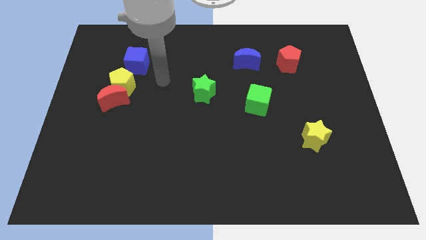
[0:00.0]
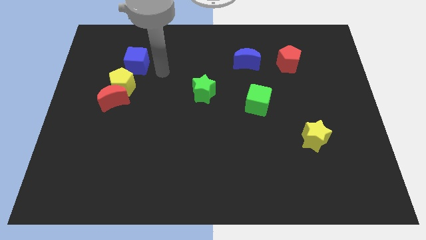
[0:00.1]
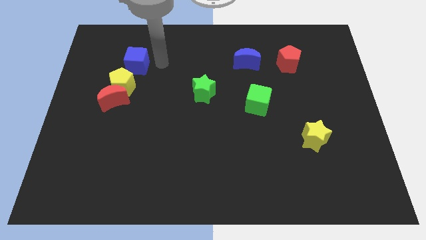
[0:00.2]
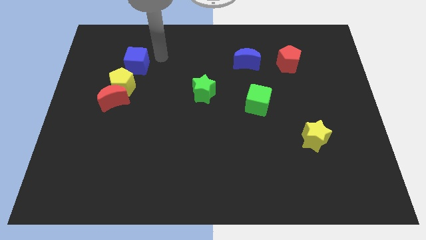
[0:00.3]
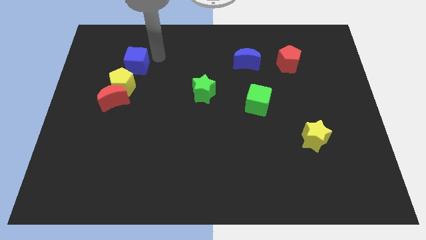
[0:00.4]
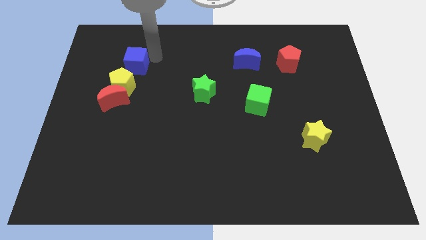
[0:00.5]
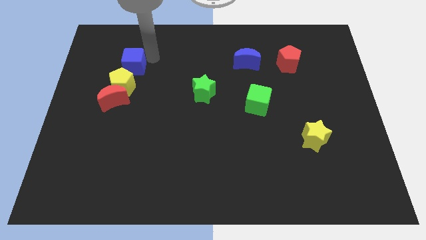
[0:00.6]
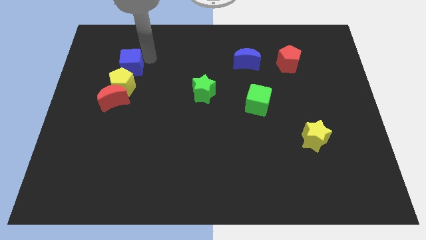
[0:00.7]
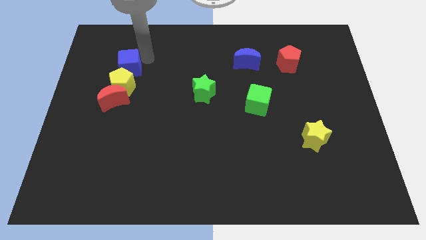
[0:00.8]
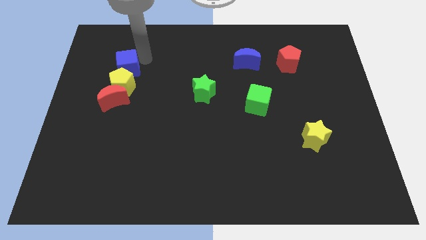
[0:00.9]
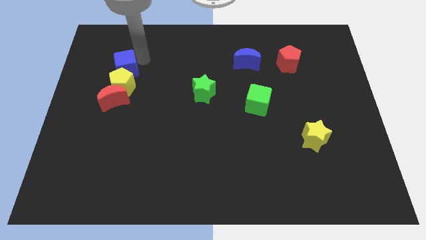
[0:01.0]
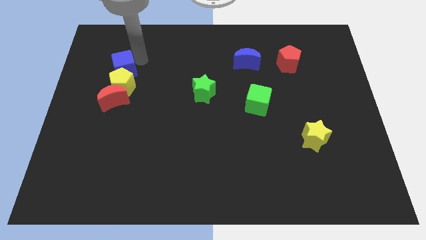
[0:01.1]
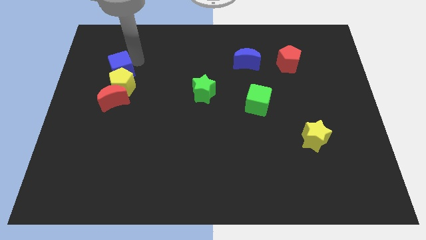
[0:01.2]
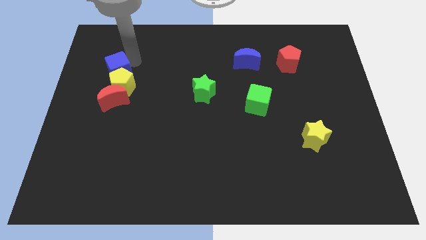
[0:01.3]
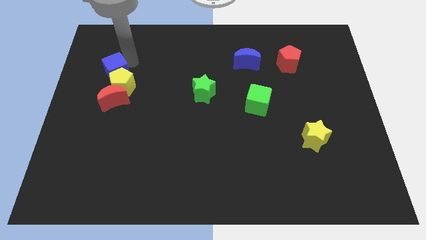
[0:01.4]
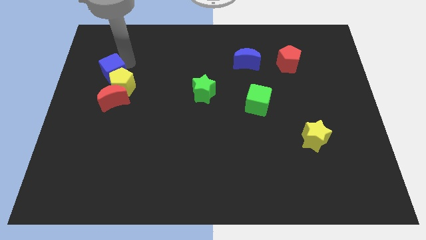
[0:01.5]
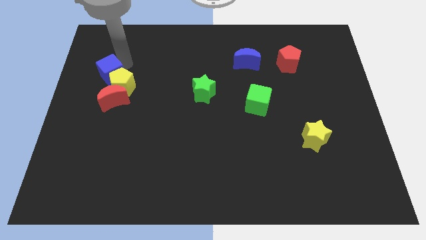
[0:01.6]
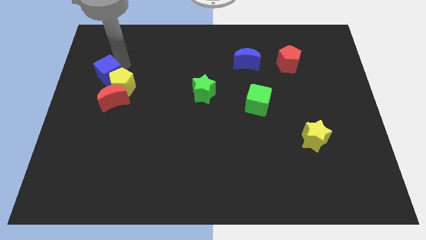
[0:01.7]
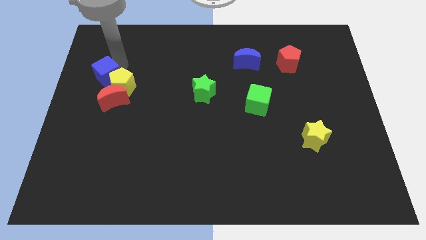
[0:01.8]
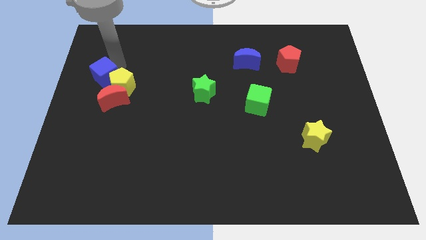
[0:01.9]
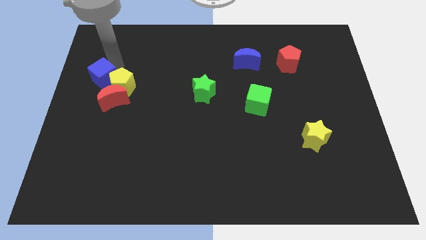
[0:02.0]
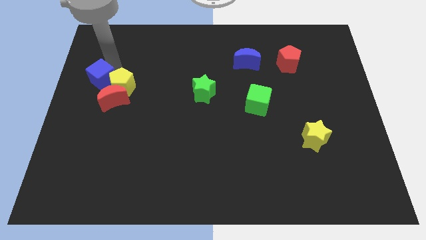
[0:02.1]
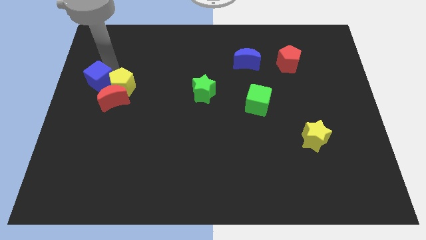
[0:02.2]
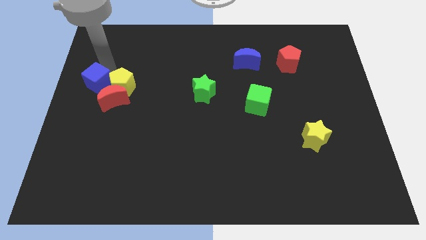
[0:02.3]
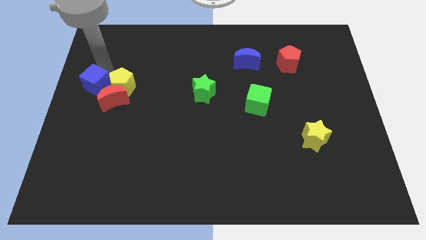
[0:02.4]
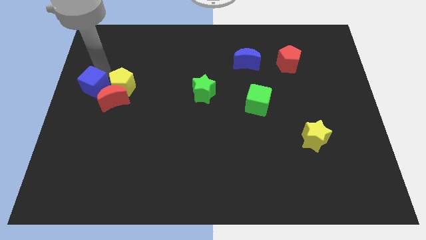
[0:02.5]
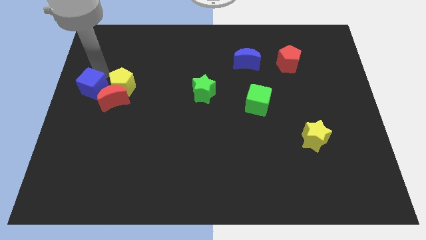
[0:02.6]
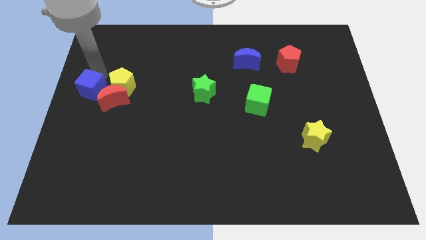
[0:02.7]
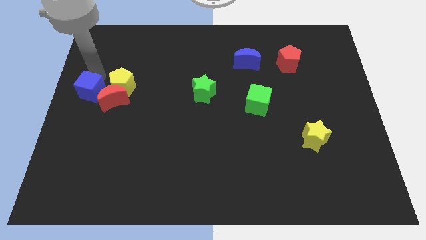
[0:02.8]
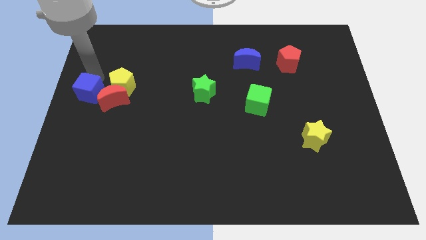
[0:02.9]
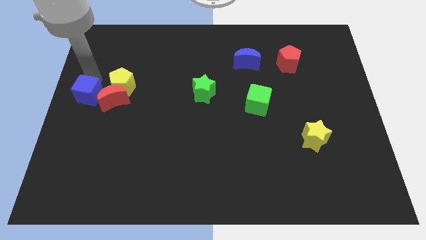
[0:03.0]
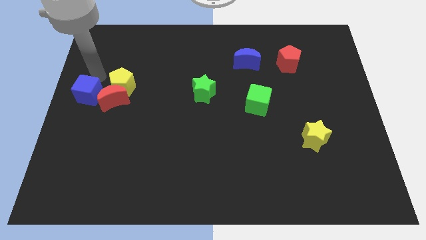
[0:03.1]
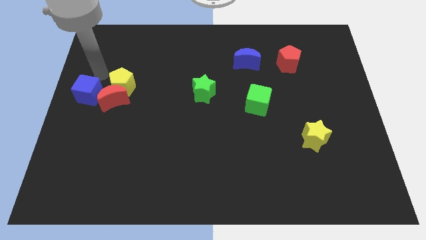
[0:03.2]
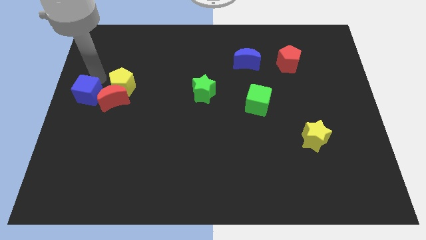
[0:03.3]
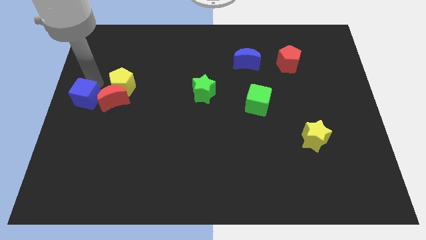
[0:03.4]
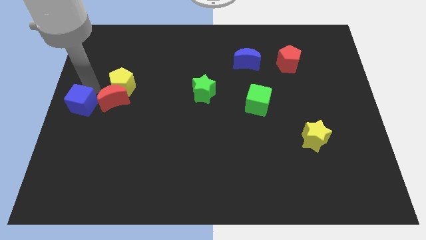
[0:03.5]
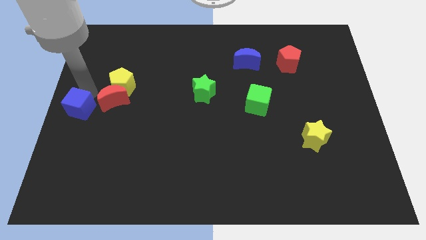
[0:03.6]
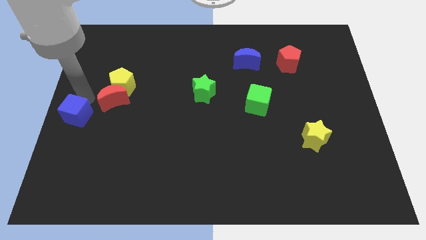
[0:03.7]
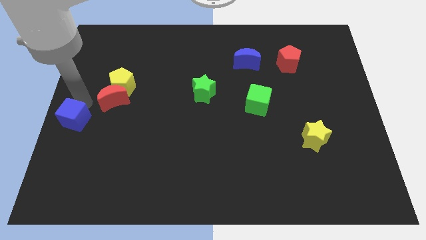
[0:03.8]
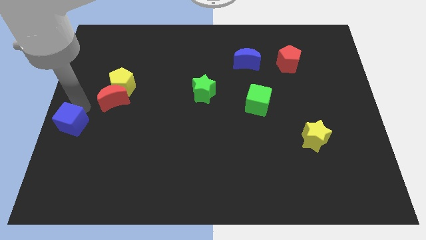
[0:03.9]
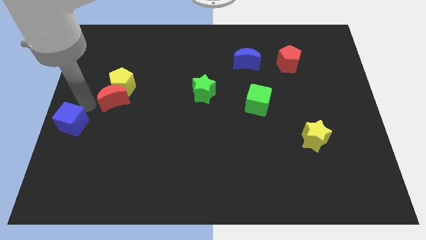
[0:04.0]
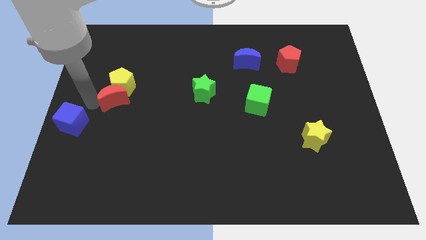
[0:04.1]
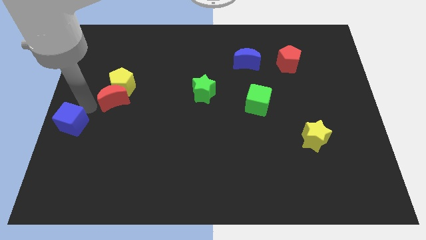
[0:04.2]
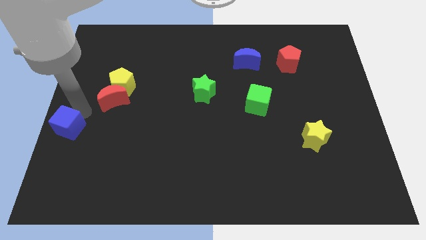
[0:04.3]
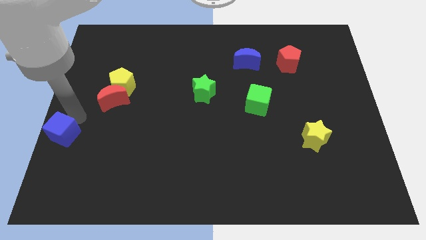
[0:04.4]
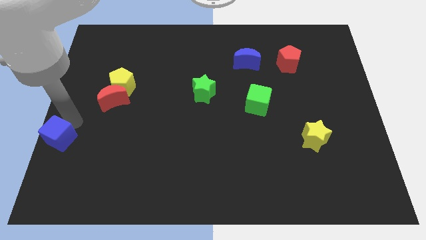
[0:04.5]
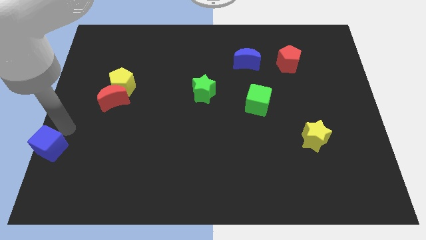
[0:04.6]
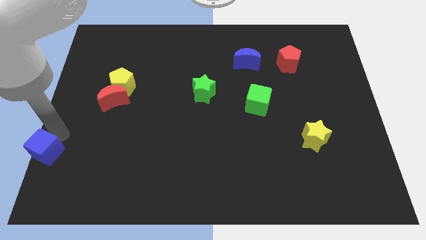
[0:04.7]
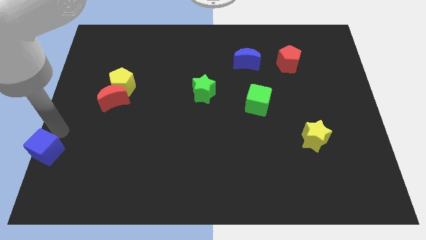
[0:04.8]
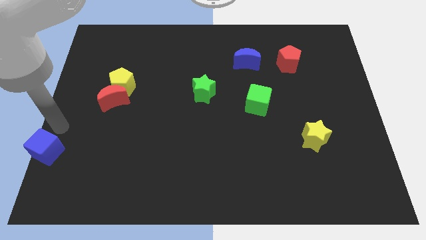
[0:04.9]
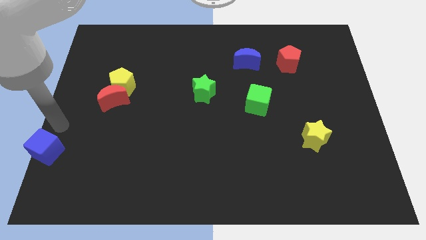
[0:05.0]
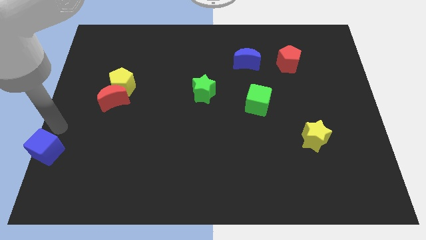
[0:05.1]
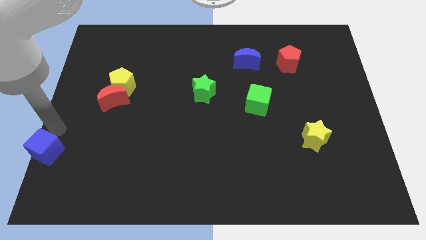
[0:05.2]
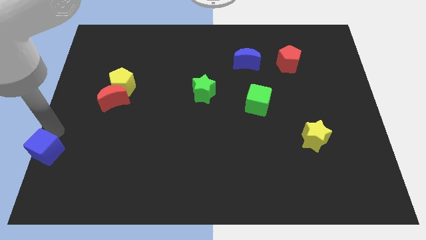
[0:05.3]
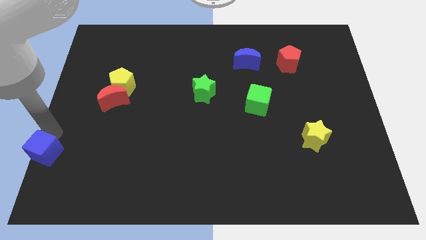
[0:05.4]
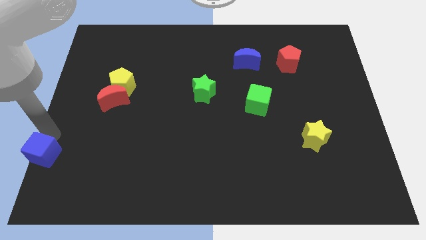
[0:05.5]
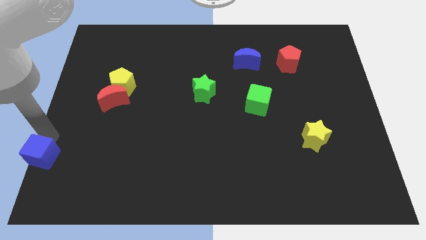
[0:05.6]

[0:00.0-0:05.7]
slide the blue cube to the bottom left of the board
